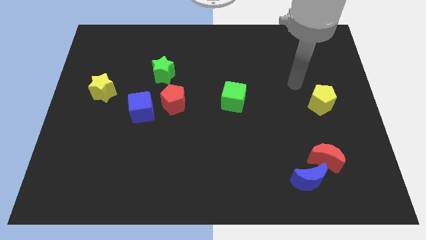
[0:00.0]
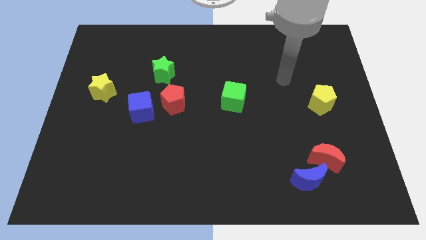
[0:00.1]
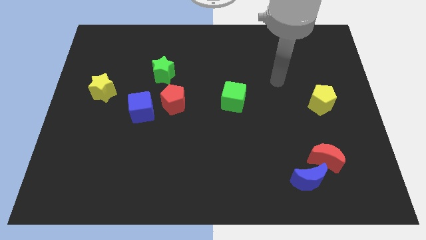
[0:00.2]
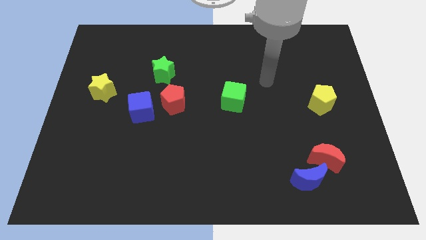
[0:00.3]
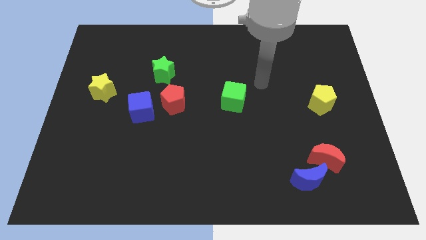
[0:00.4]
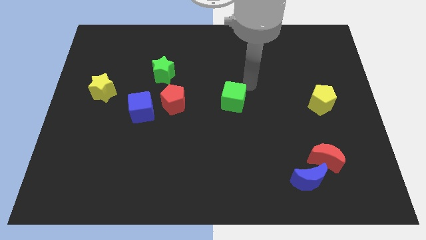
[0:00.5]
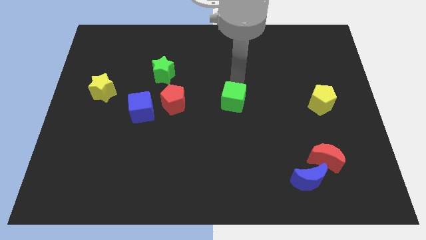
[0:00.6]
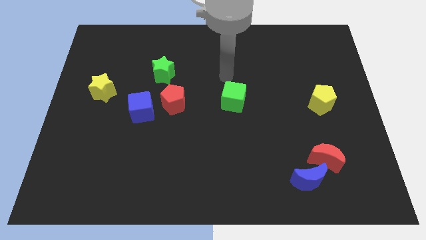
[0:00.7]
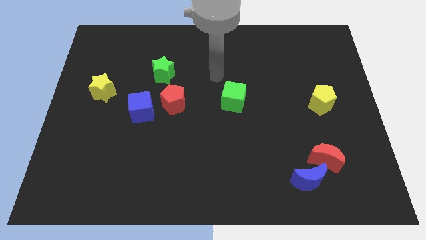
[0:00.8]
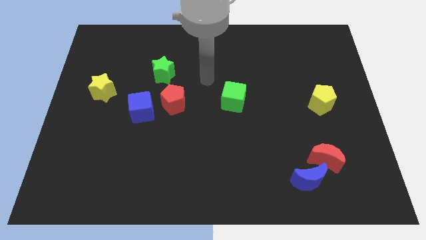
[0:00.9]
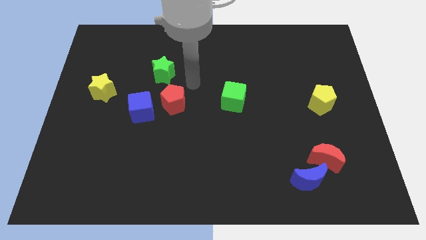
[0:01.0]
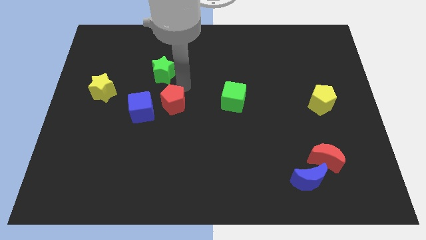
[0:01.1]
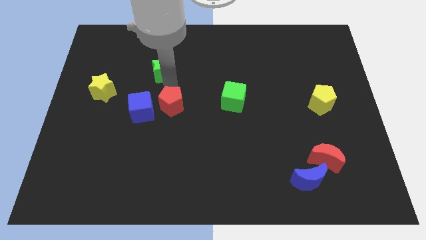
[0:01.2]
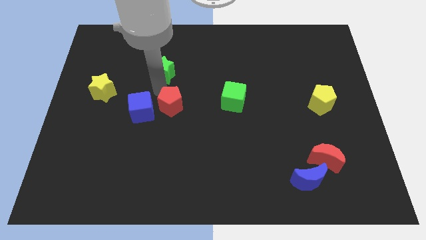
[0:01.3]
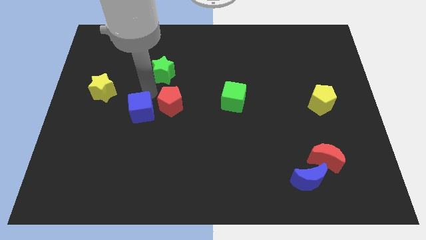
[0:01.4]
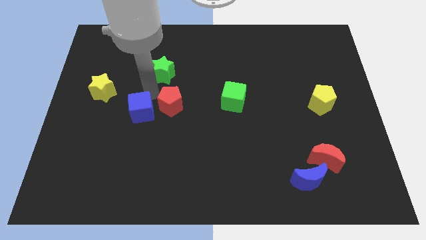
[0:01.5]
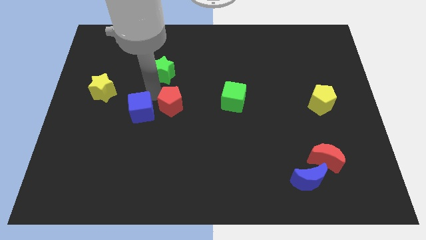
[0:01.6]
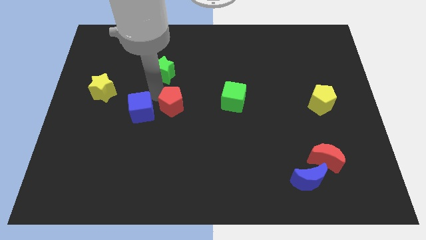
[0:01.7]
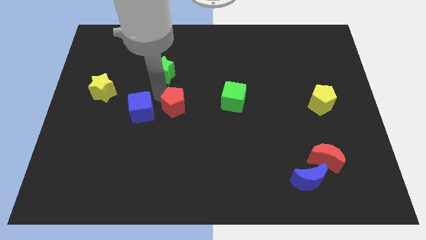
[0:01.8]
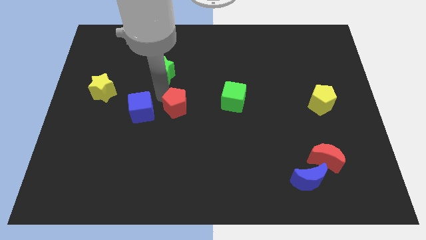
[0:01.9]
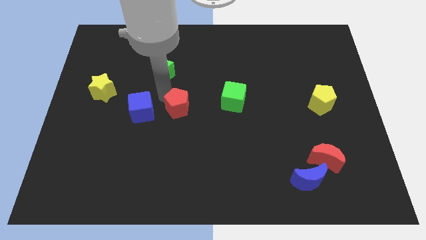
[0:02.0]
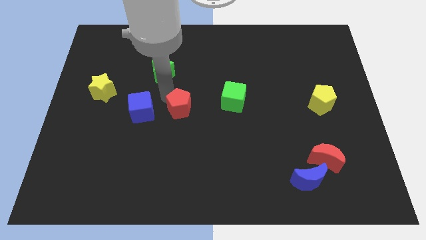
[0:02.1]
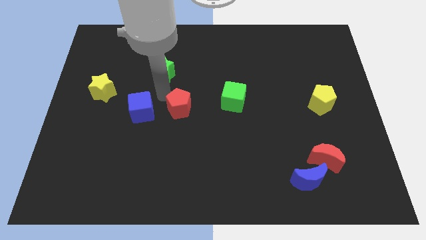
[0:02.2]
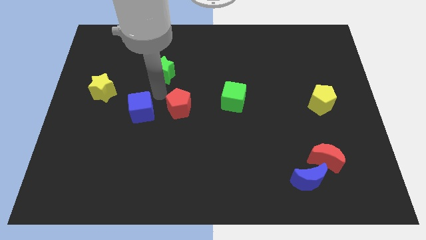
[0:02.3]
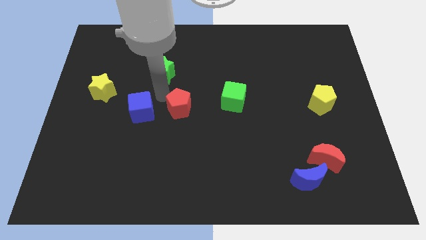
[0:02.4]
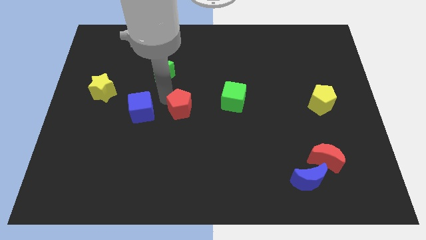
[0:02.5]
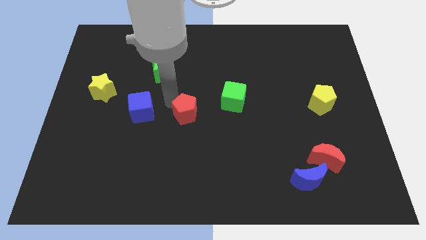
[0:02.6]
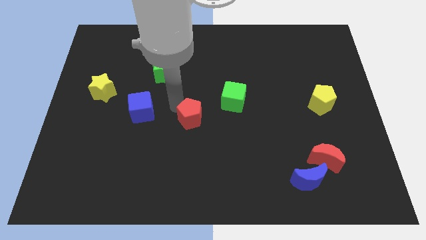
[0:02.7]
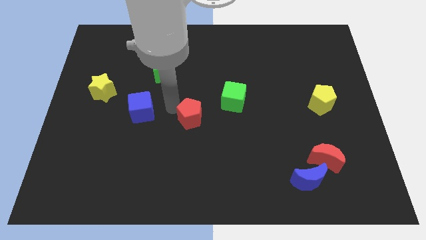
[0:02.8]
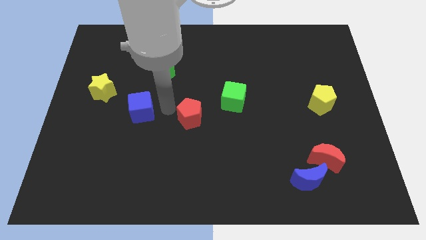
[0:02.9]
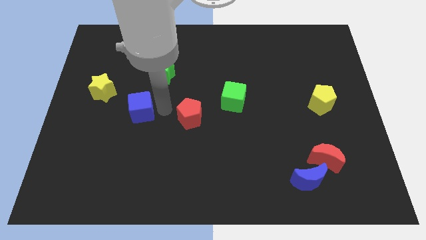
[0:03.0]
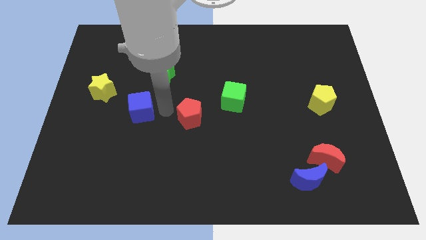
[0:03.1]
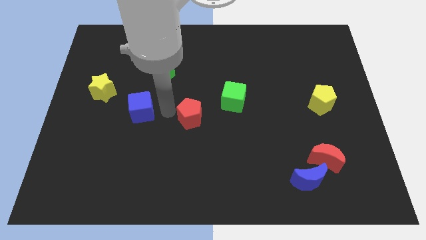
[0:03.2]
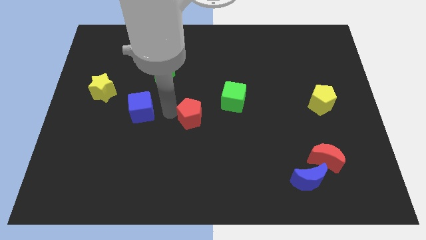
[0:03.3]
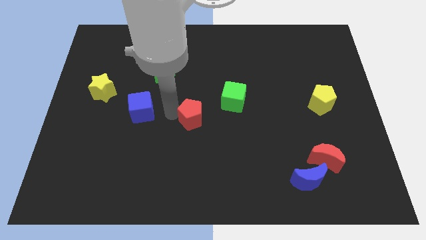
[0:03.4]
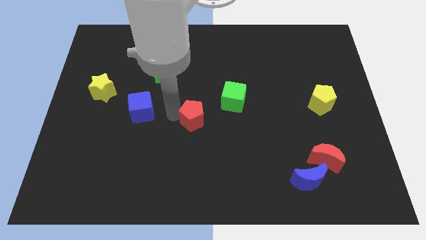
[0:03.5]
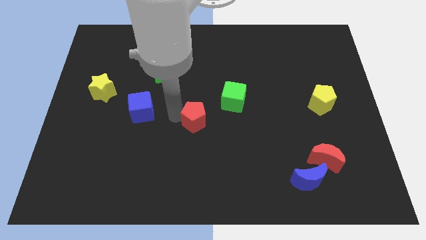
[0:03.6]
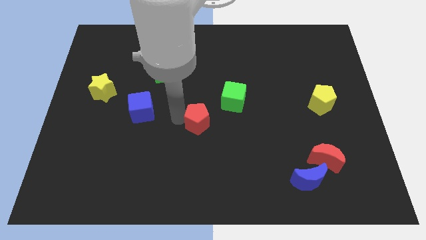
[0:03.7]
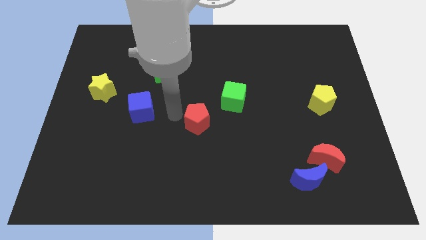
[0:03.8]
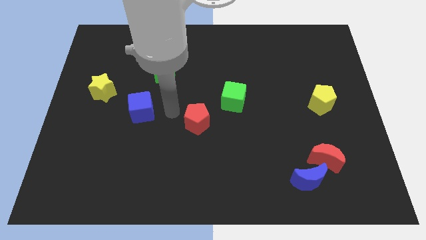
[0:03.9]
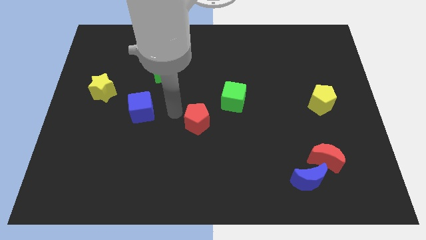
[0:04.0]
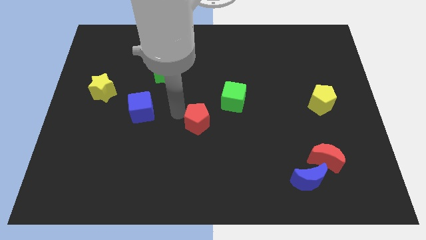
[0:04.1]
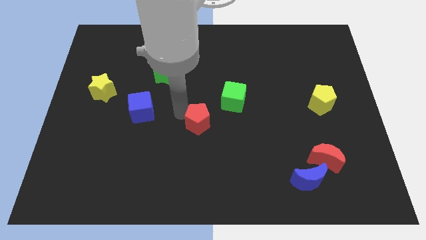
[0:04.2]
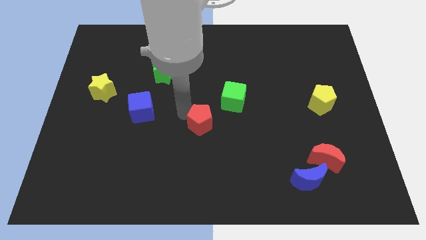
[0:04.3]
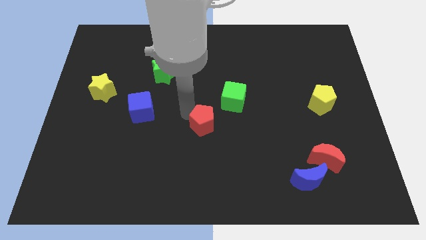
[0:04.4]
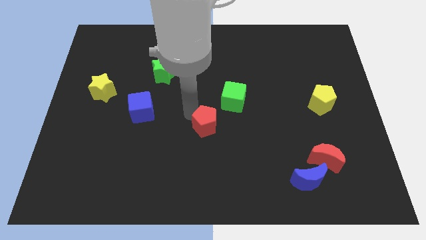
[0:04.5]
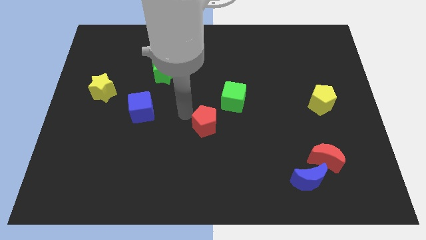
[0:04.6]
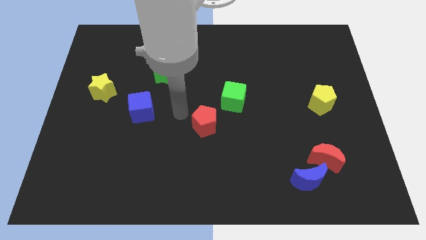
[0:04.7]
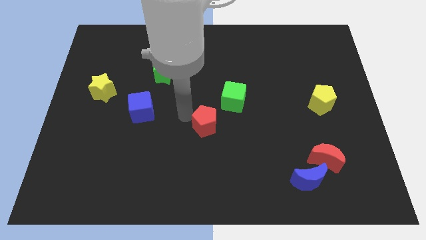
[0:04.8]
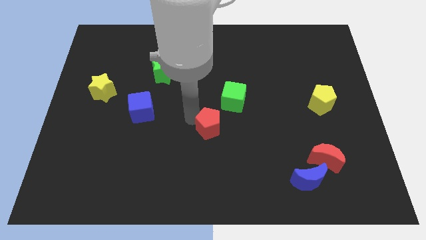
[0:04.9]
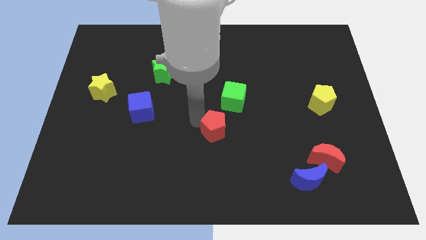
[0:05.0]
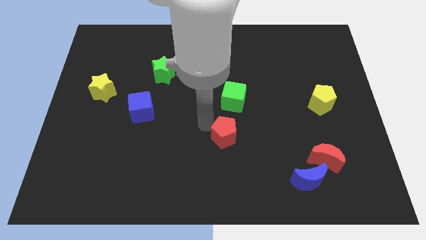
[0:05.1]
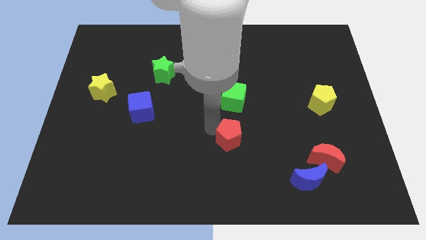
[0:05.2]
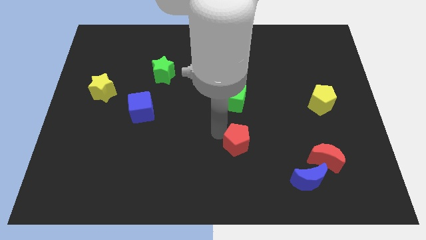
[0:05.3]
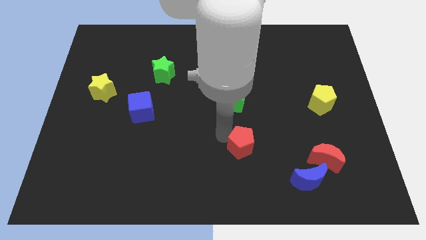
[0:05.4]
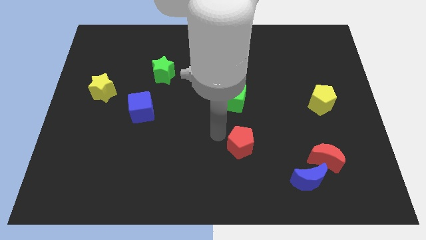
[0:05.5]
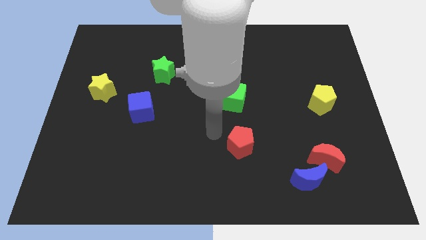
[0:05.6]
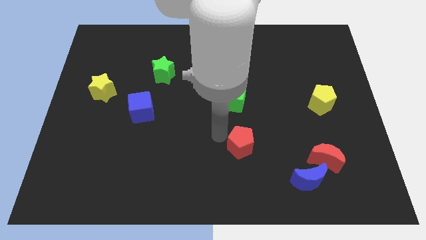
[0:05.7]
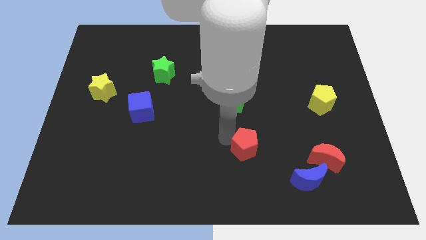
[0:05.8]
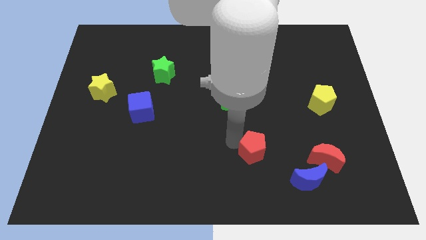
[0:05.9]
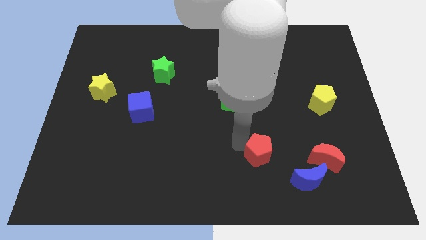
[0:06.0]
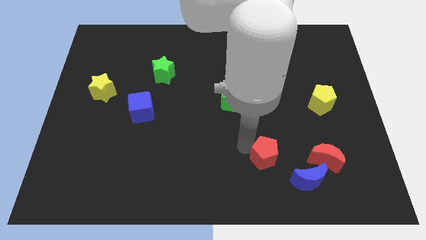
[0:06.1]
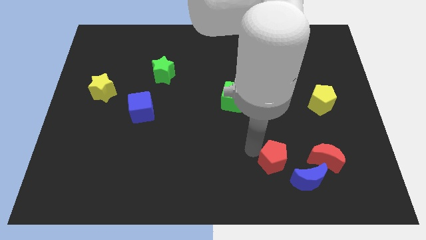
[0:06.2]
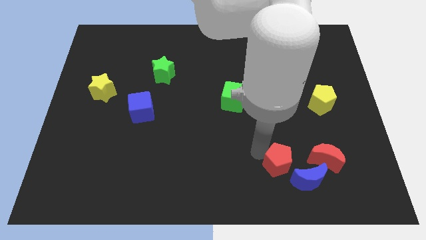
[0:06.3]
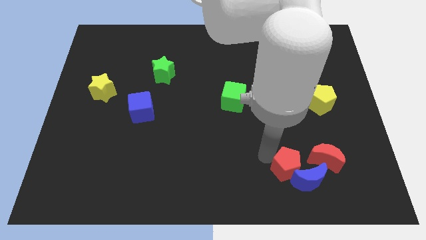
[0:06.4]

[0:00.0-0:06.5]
put the red pentagon next to the blue moon
